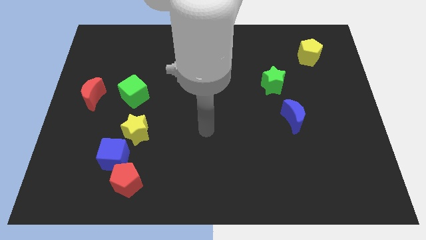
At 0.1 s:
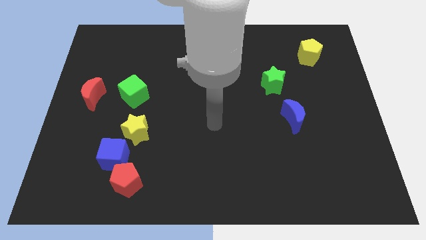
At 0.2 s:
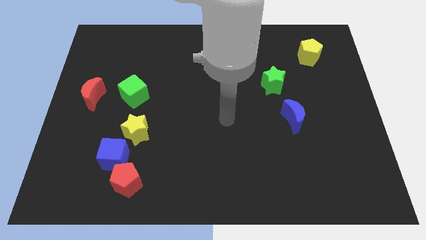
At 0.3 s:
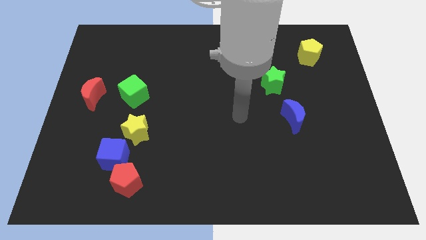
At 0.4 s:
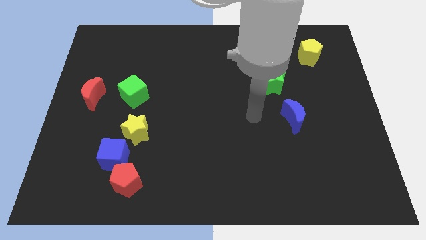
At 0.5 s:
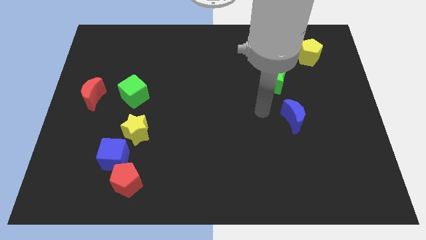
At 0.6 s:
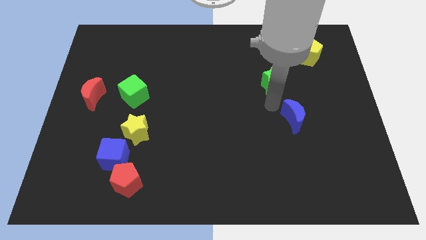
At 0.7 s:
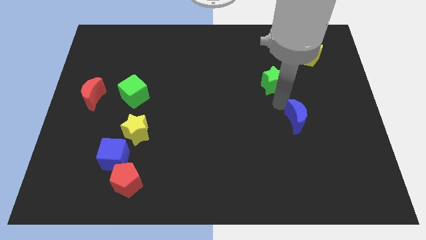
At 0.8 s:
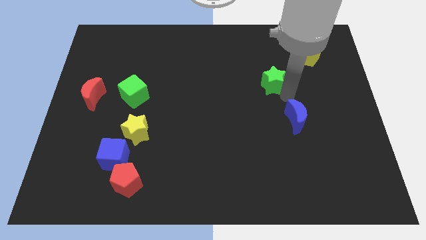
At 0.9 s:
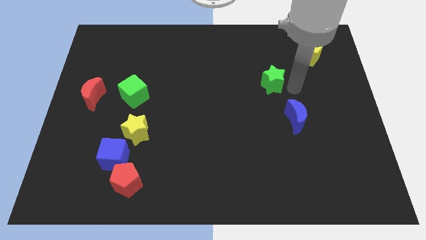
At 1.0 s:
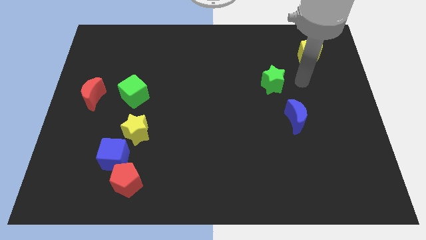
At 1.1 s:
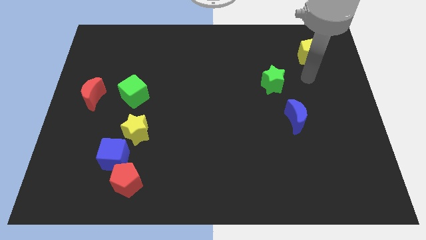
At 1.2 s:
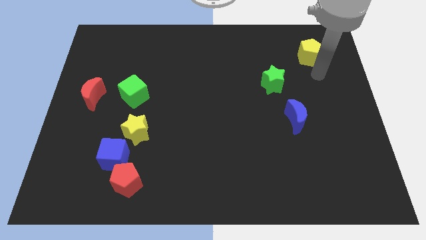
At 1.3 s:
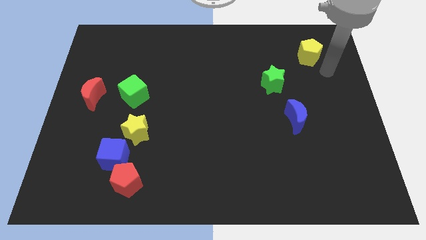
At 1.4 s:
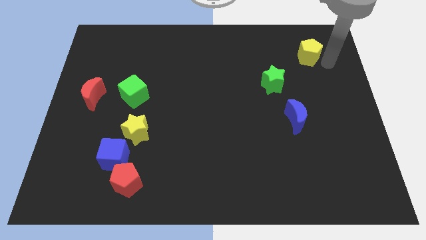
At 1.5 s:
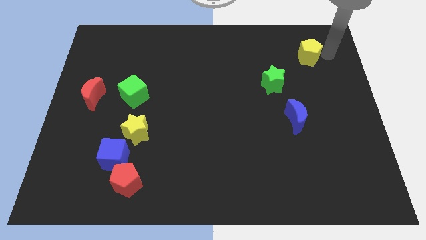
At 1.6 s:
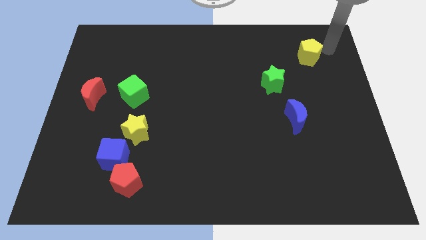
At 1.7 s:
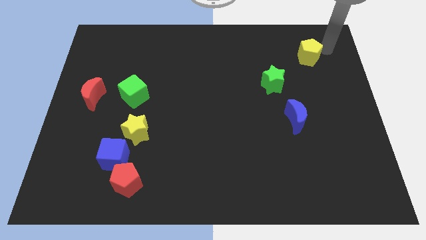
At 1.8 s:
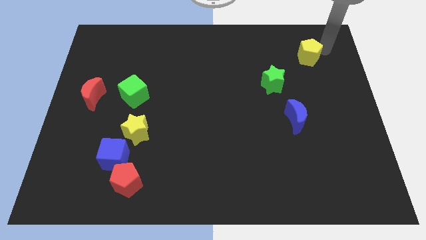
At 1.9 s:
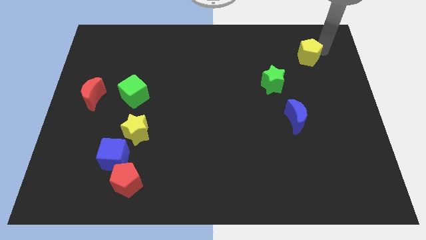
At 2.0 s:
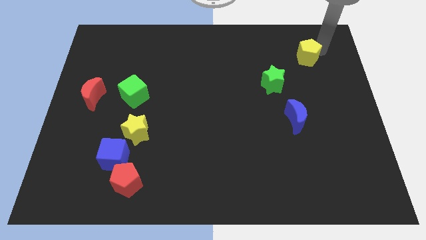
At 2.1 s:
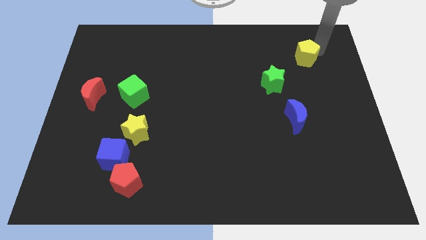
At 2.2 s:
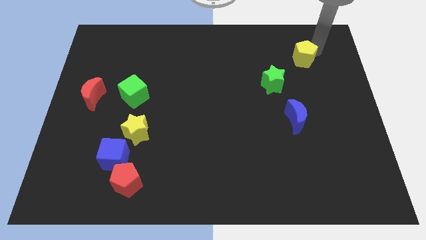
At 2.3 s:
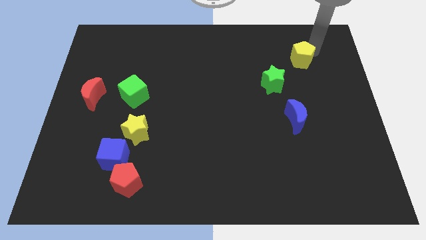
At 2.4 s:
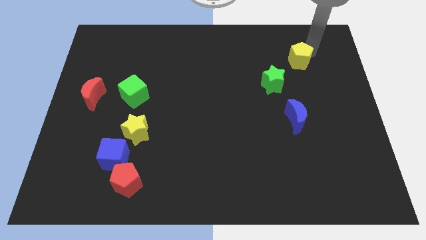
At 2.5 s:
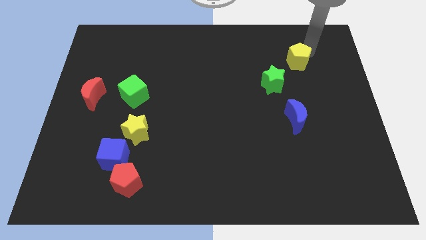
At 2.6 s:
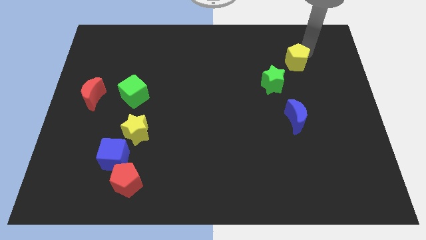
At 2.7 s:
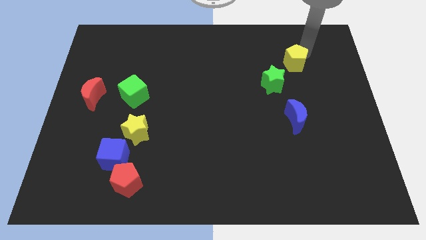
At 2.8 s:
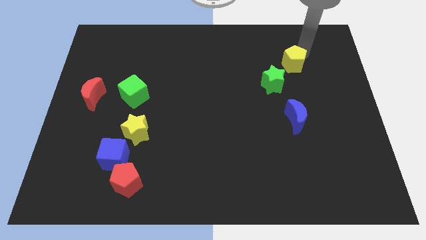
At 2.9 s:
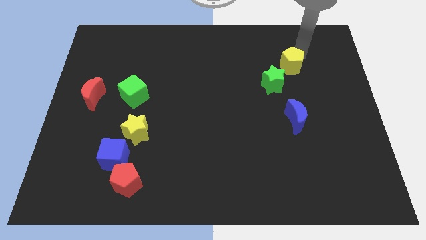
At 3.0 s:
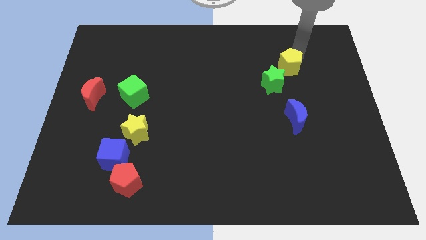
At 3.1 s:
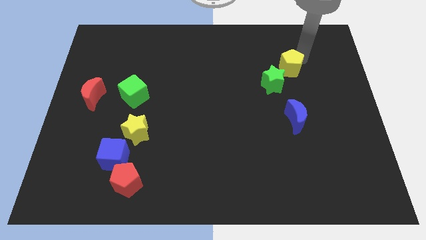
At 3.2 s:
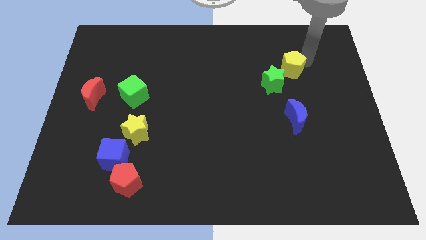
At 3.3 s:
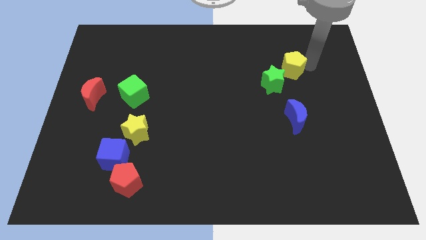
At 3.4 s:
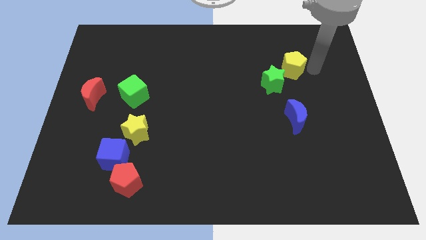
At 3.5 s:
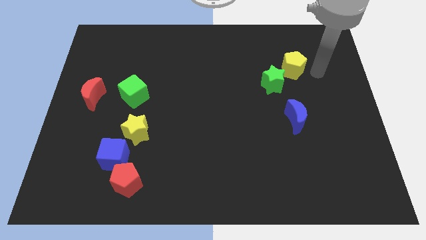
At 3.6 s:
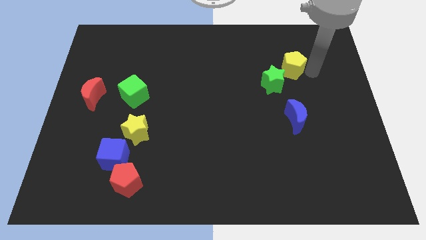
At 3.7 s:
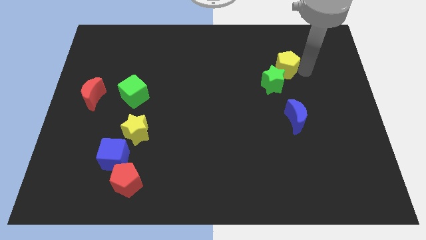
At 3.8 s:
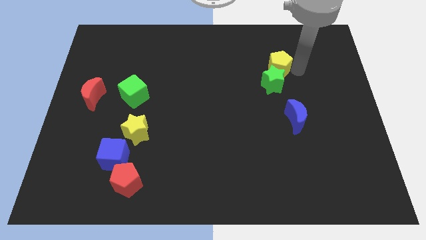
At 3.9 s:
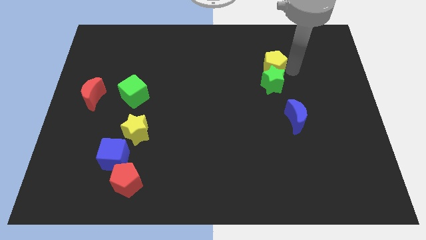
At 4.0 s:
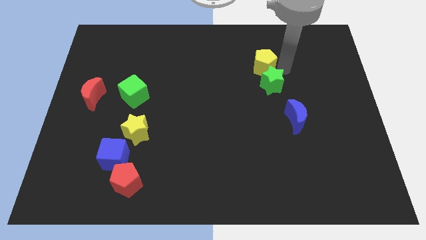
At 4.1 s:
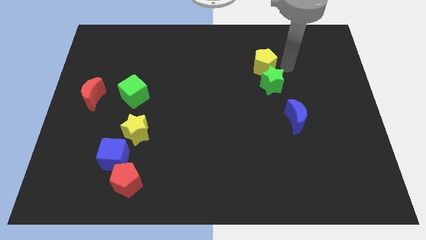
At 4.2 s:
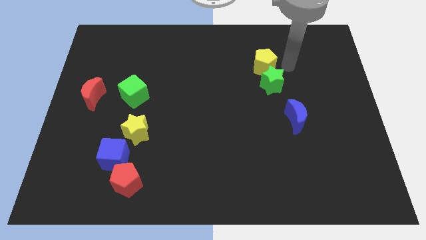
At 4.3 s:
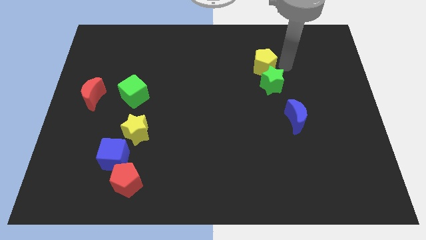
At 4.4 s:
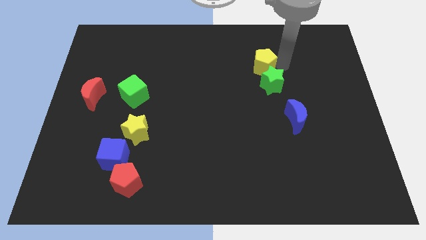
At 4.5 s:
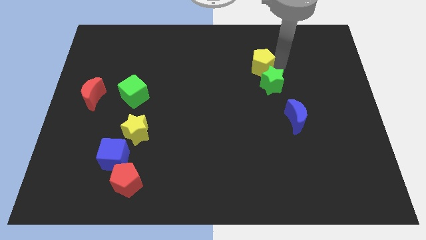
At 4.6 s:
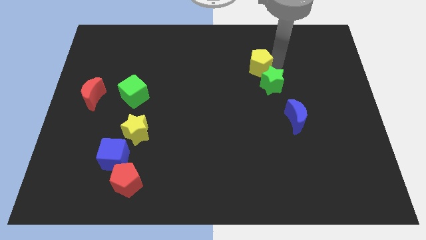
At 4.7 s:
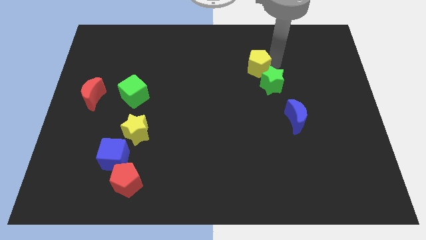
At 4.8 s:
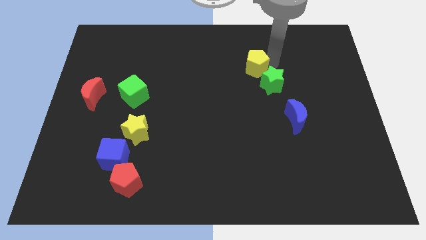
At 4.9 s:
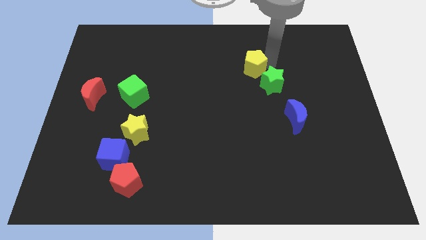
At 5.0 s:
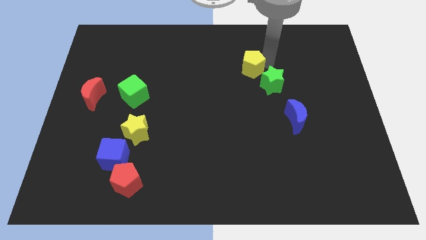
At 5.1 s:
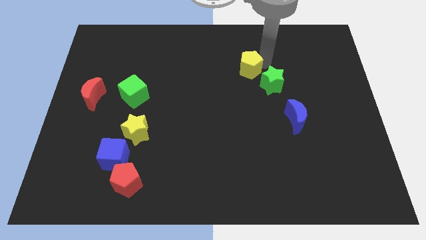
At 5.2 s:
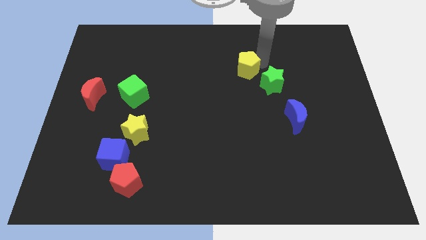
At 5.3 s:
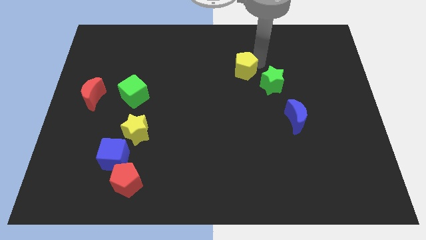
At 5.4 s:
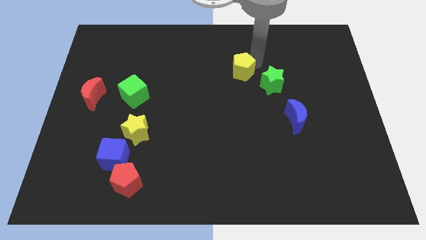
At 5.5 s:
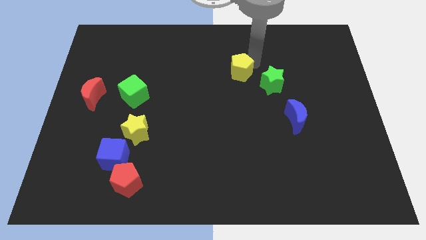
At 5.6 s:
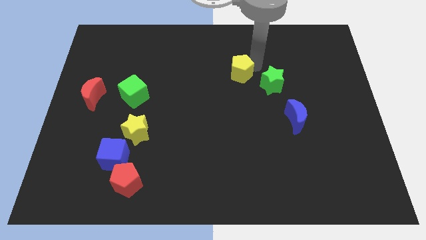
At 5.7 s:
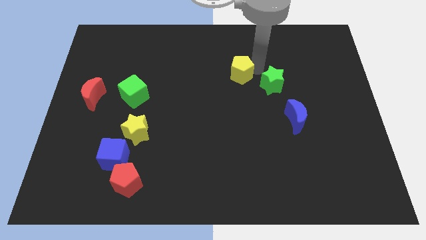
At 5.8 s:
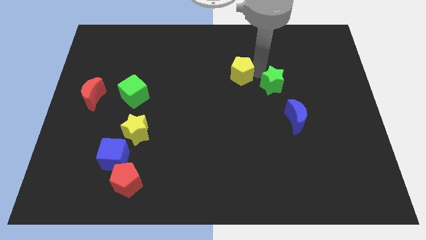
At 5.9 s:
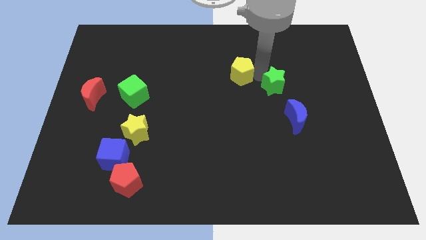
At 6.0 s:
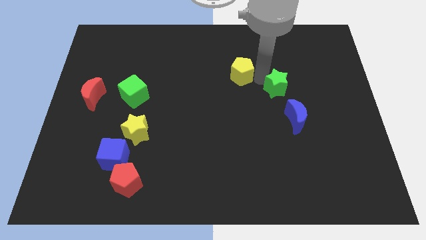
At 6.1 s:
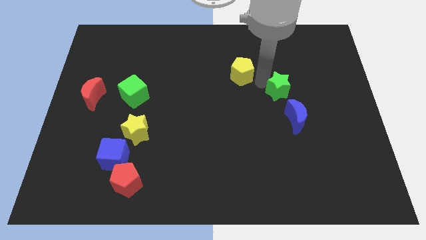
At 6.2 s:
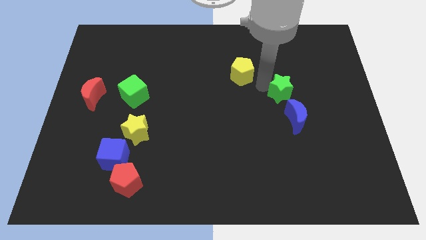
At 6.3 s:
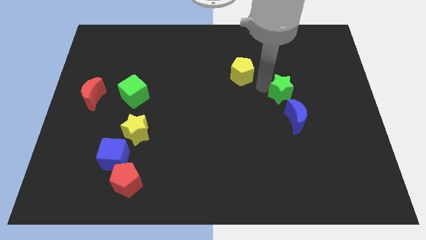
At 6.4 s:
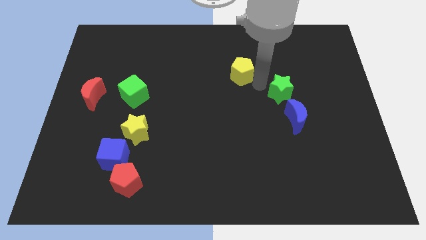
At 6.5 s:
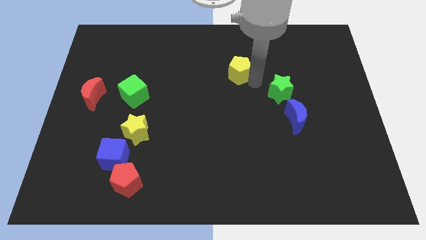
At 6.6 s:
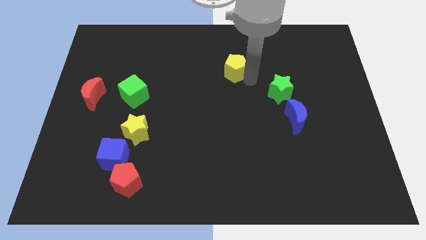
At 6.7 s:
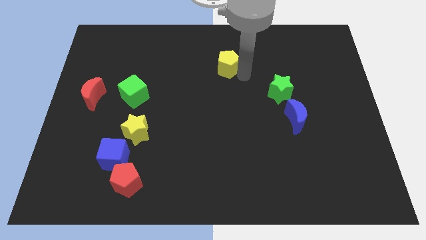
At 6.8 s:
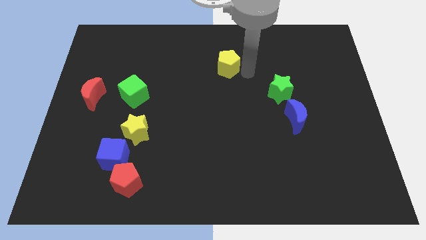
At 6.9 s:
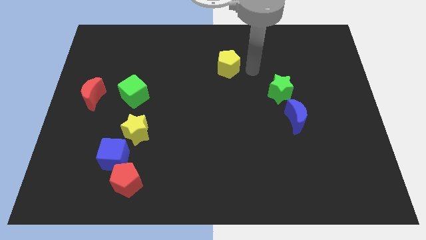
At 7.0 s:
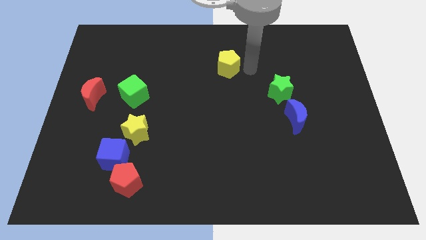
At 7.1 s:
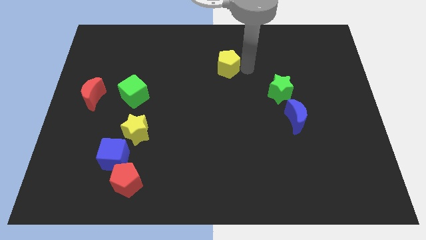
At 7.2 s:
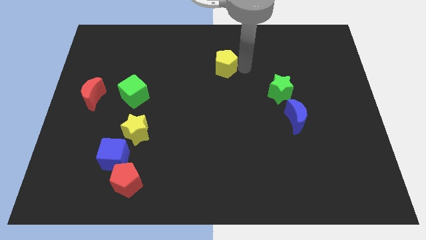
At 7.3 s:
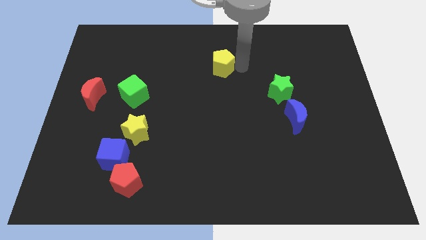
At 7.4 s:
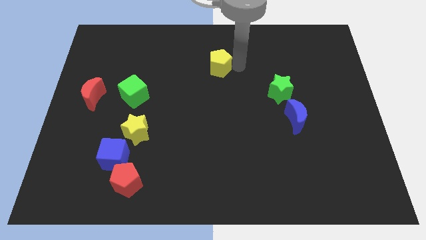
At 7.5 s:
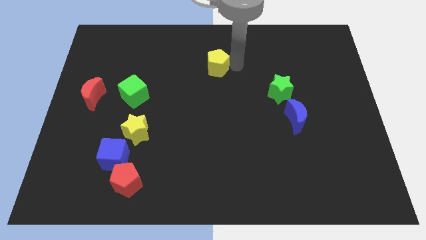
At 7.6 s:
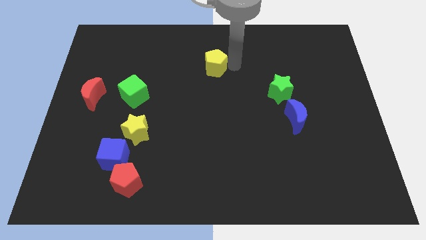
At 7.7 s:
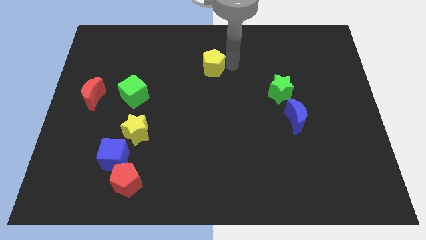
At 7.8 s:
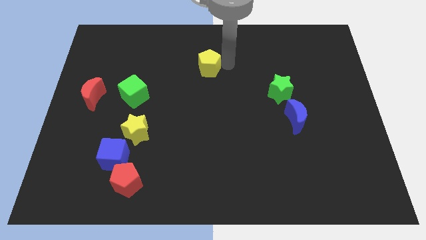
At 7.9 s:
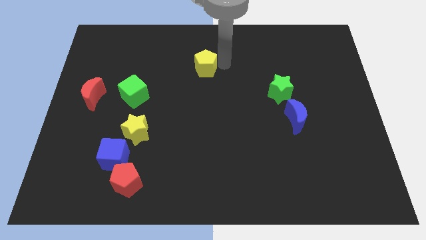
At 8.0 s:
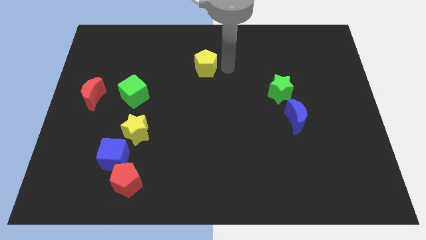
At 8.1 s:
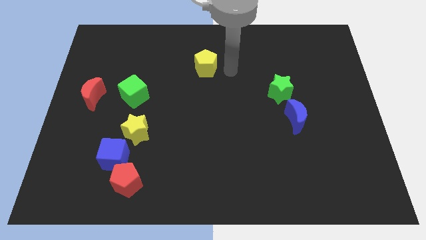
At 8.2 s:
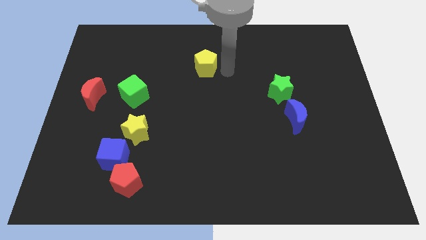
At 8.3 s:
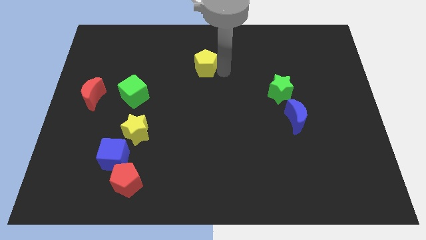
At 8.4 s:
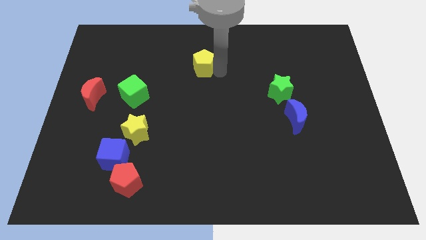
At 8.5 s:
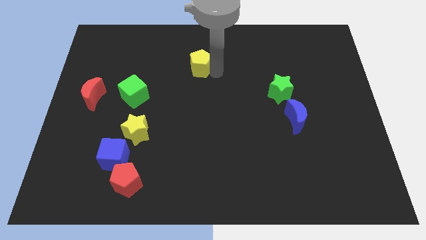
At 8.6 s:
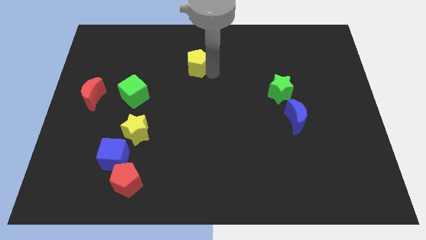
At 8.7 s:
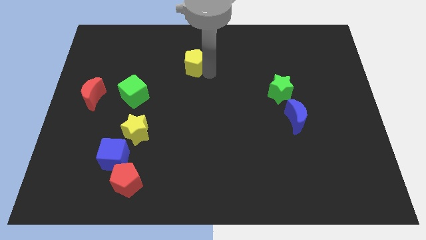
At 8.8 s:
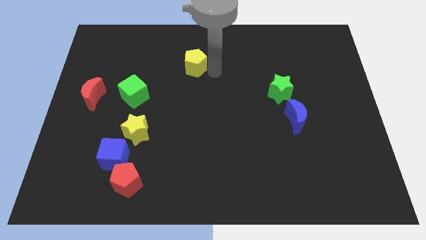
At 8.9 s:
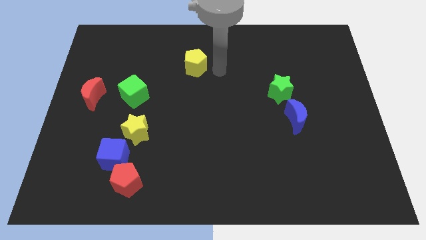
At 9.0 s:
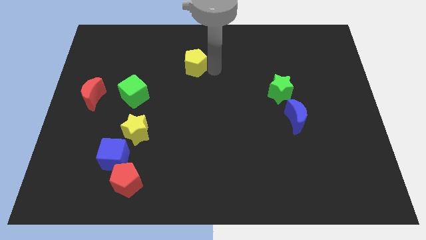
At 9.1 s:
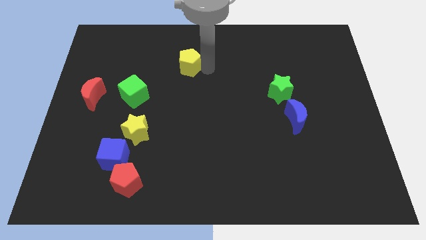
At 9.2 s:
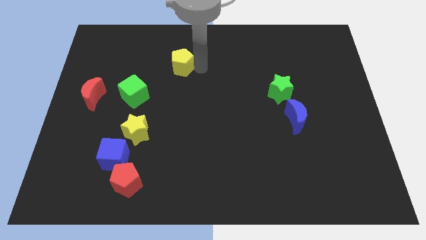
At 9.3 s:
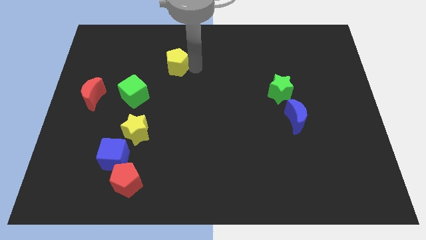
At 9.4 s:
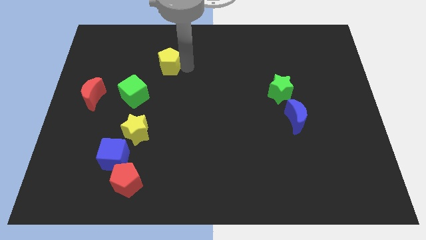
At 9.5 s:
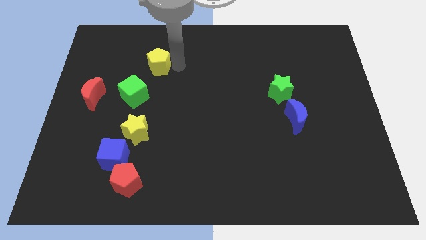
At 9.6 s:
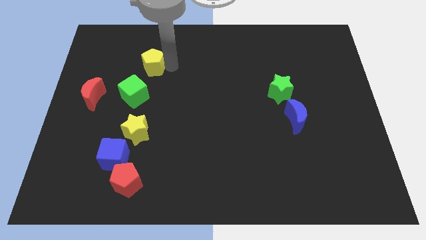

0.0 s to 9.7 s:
move the yellow pentagon above the green cube
